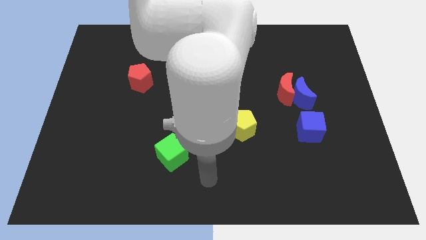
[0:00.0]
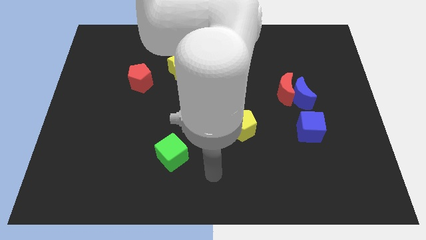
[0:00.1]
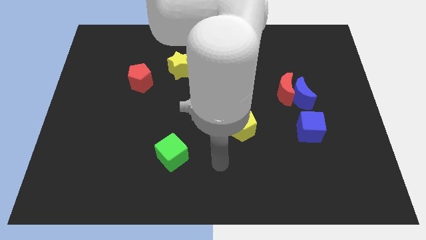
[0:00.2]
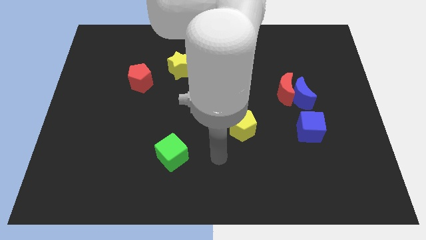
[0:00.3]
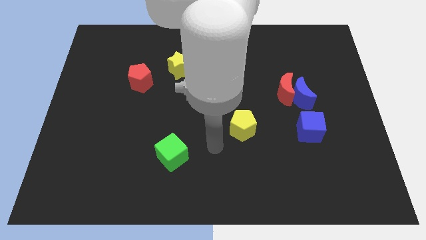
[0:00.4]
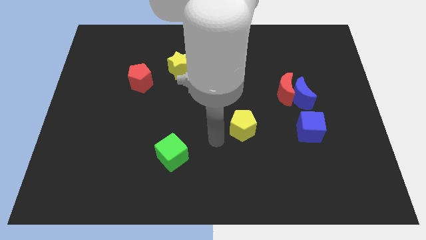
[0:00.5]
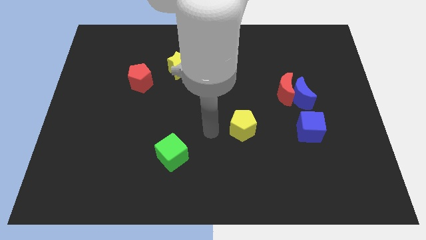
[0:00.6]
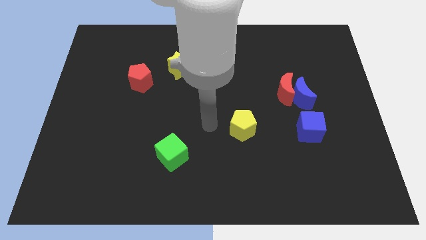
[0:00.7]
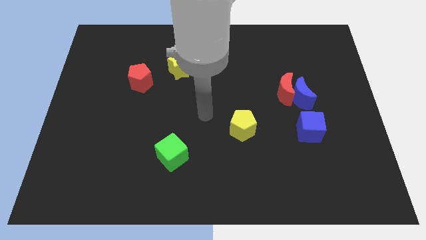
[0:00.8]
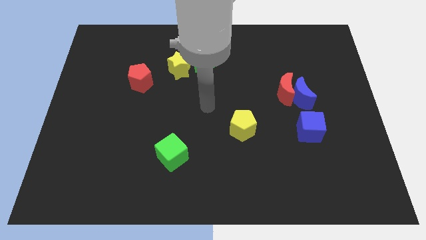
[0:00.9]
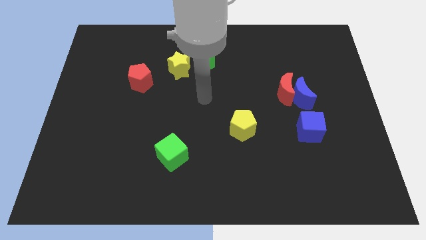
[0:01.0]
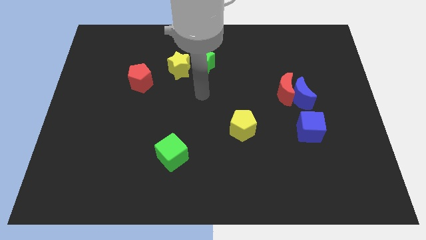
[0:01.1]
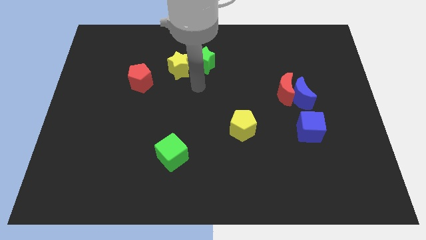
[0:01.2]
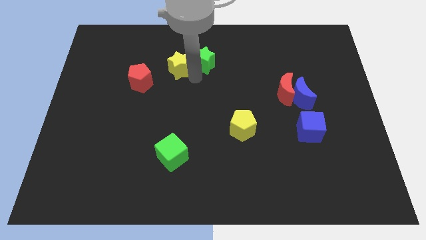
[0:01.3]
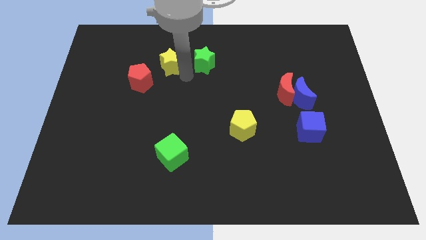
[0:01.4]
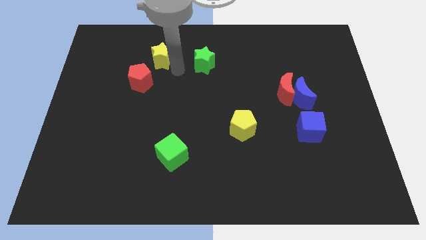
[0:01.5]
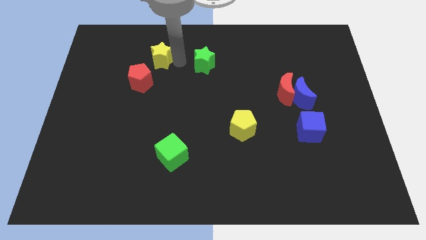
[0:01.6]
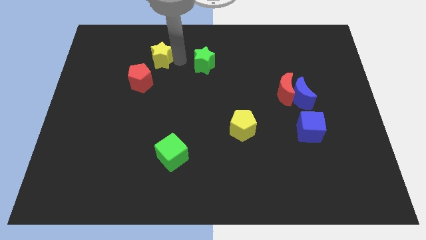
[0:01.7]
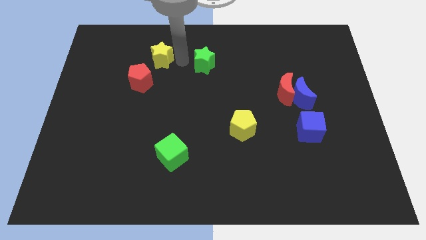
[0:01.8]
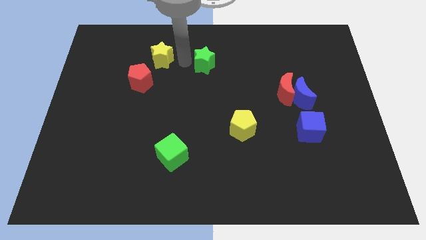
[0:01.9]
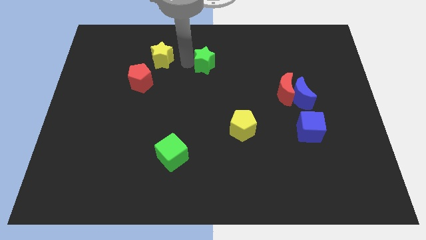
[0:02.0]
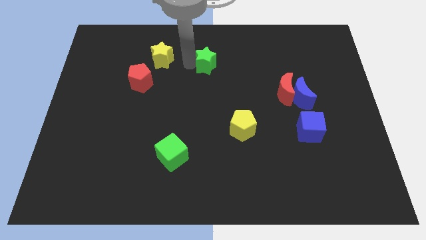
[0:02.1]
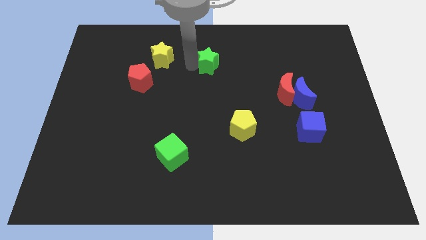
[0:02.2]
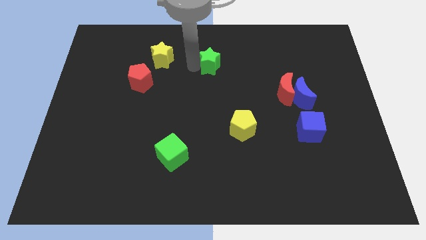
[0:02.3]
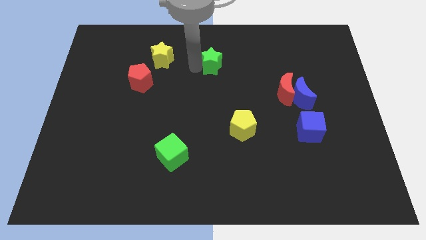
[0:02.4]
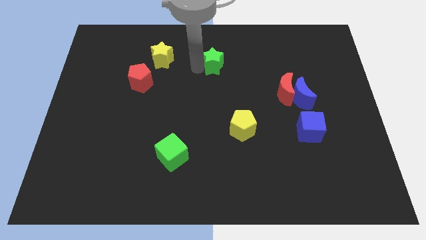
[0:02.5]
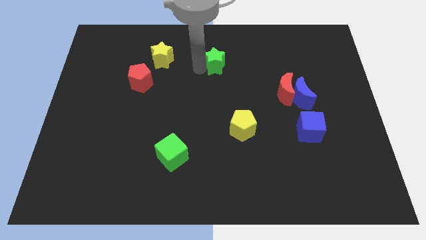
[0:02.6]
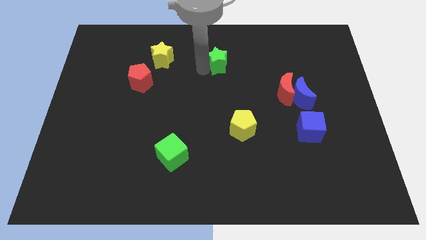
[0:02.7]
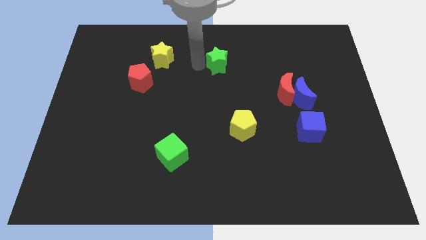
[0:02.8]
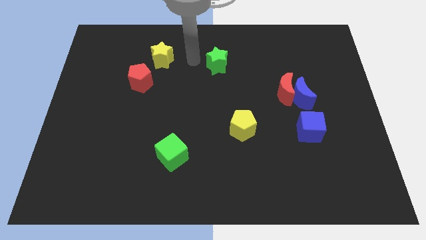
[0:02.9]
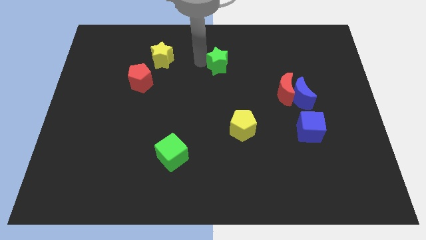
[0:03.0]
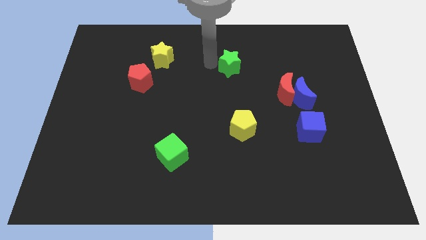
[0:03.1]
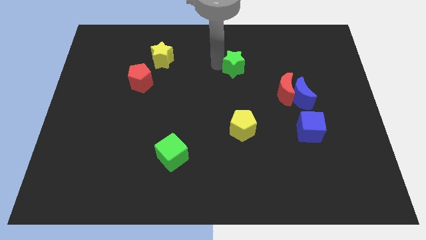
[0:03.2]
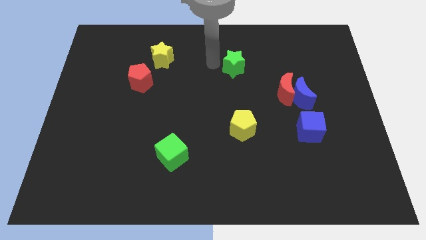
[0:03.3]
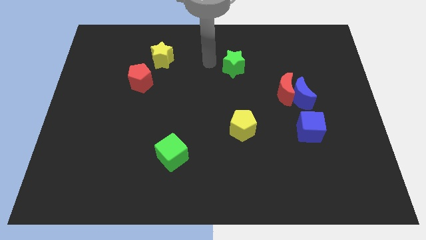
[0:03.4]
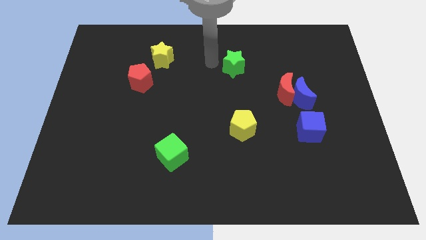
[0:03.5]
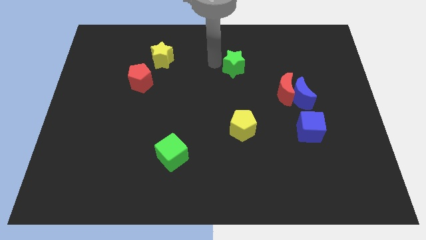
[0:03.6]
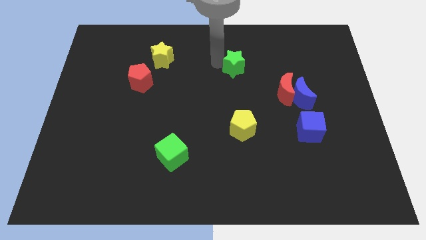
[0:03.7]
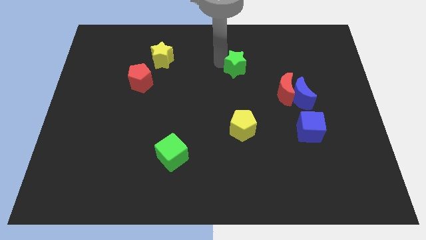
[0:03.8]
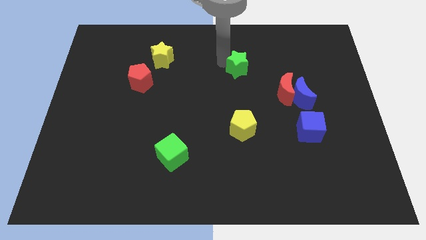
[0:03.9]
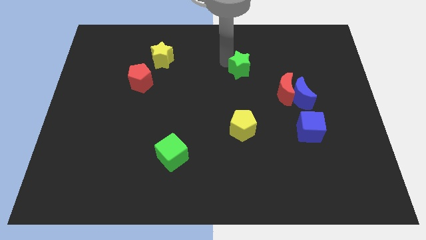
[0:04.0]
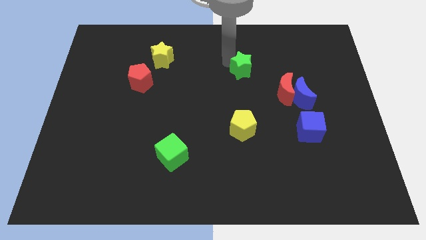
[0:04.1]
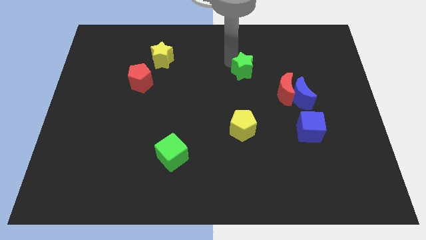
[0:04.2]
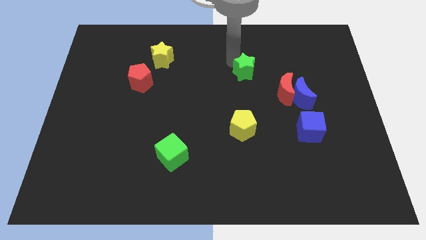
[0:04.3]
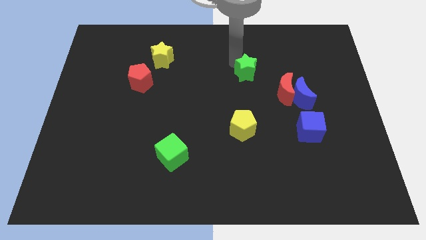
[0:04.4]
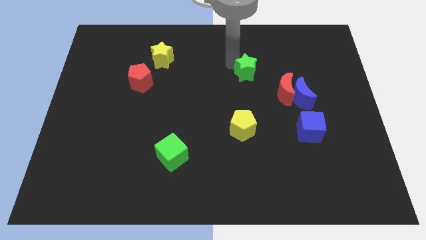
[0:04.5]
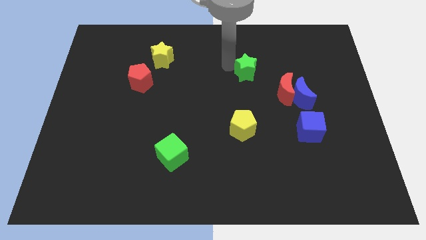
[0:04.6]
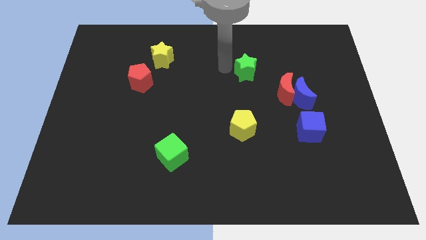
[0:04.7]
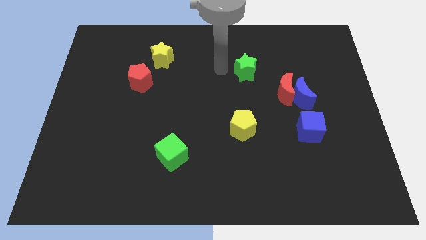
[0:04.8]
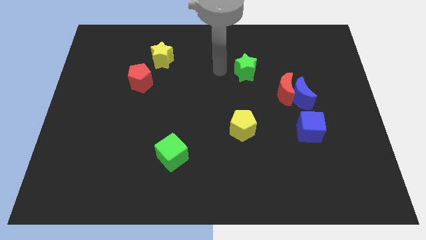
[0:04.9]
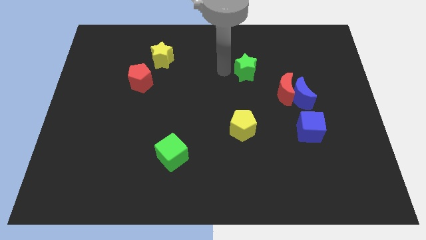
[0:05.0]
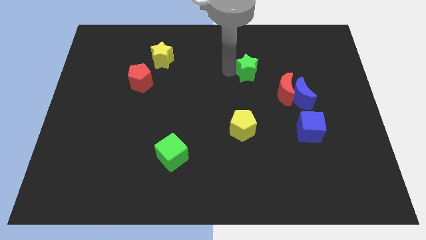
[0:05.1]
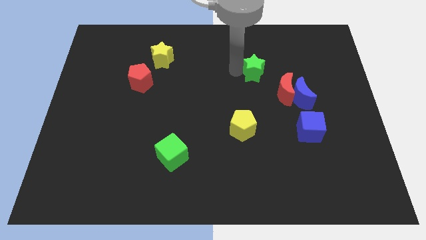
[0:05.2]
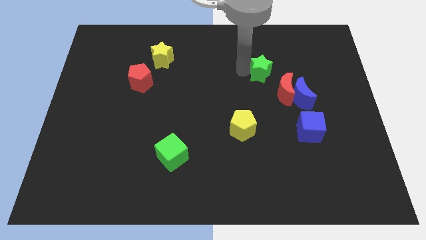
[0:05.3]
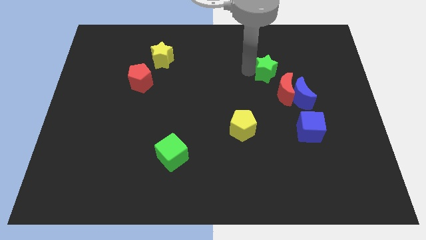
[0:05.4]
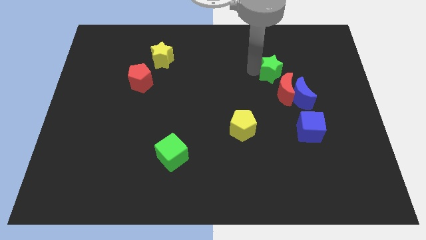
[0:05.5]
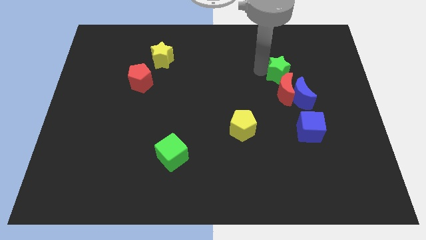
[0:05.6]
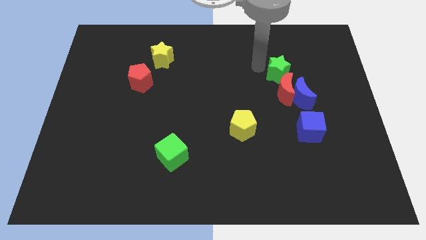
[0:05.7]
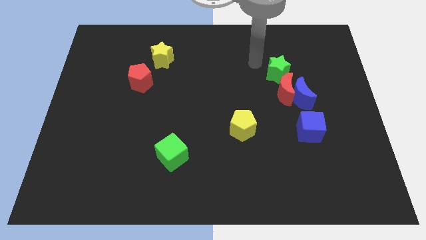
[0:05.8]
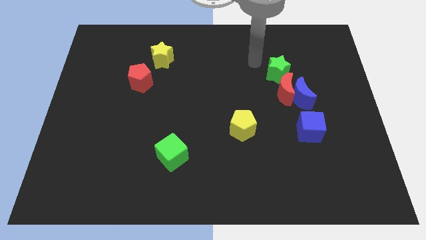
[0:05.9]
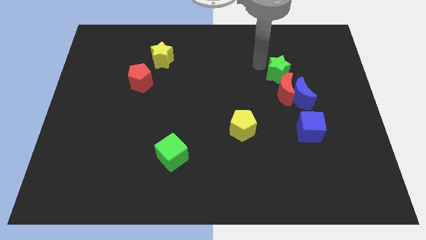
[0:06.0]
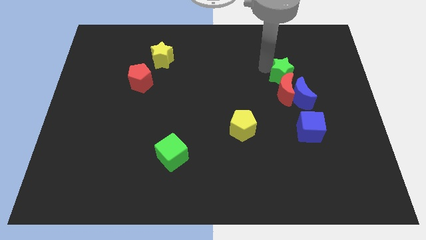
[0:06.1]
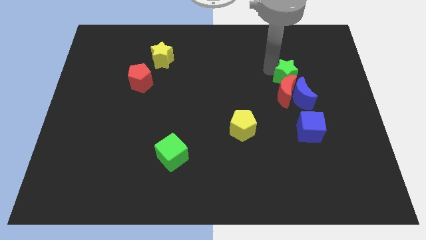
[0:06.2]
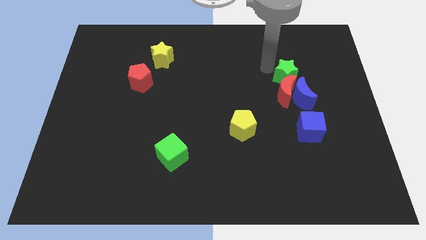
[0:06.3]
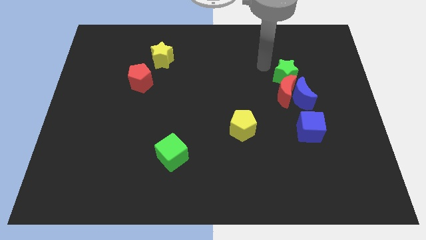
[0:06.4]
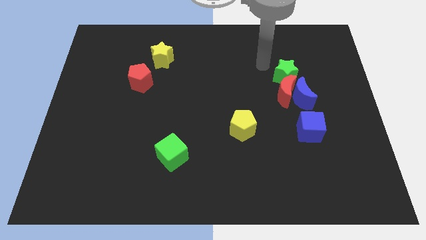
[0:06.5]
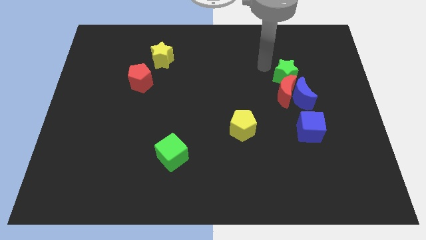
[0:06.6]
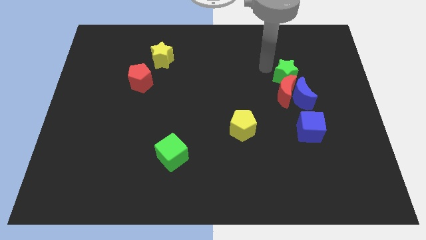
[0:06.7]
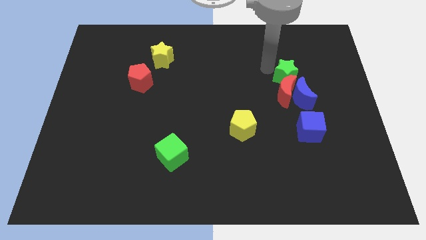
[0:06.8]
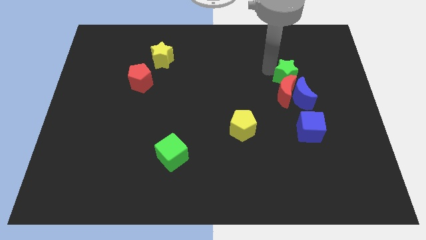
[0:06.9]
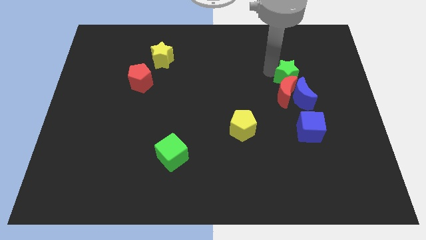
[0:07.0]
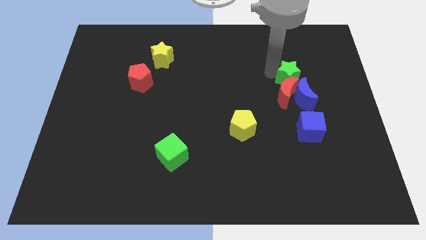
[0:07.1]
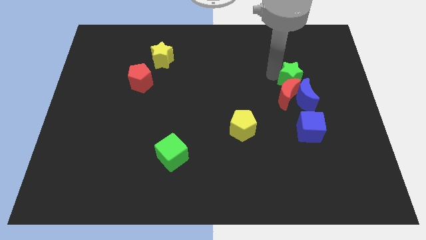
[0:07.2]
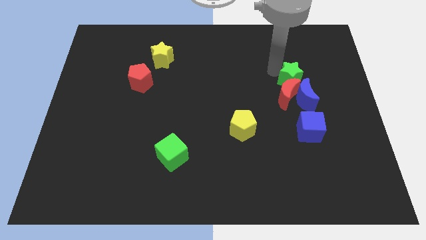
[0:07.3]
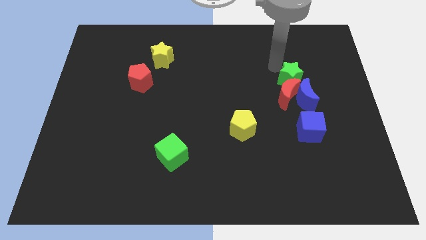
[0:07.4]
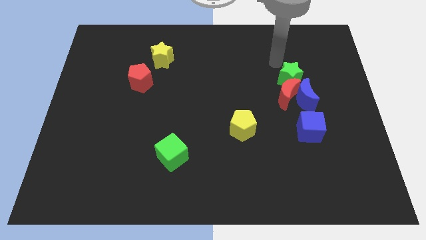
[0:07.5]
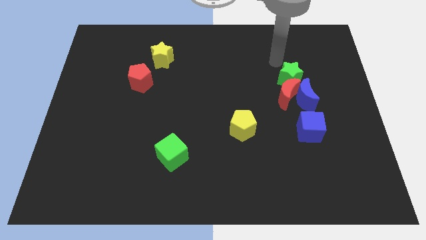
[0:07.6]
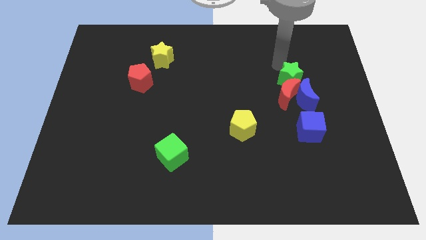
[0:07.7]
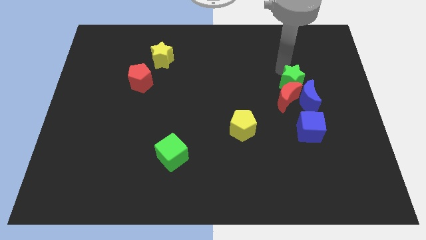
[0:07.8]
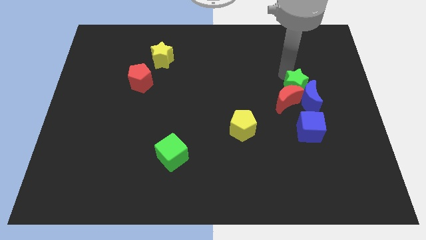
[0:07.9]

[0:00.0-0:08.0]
move the green star towards the blue moon
